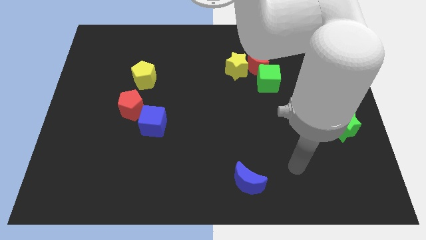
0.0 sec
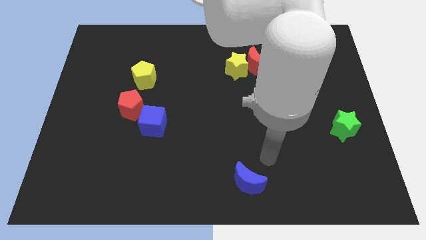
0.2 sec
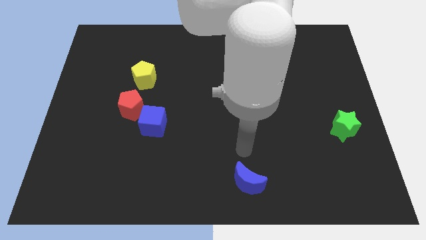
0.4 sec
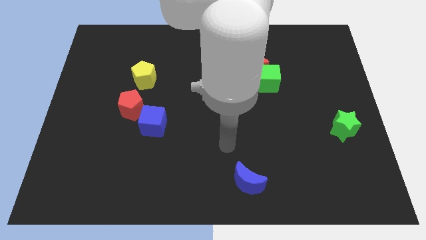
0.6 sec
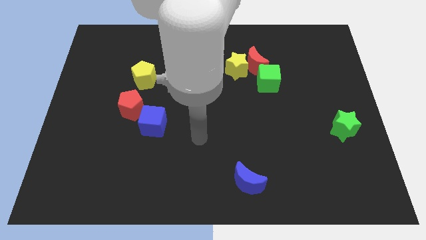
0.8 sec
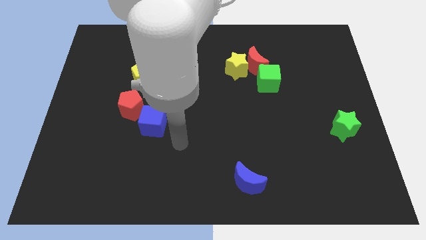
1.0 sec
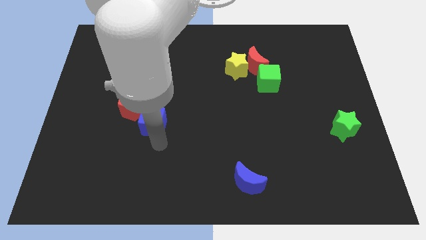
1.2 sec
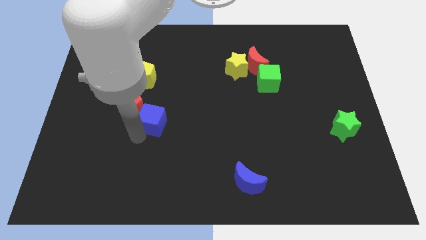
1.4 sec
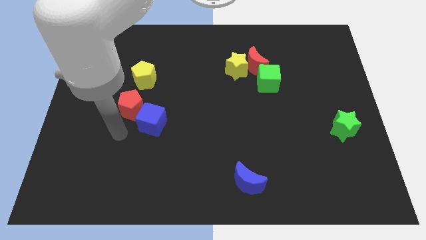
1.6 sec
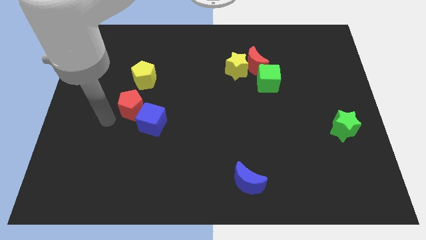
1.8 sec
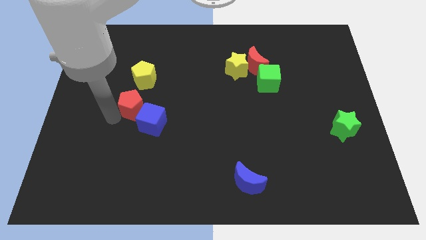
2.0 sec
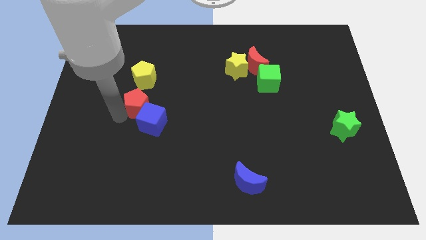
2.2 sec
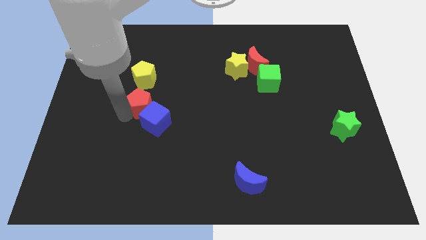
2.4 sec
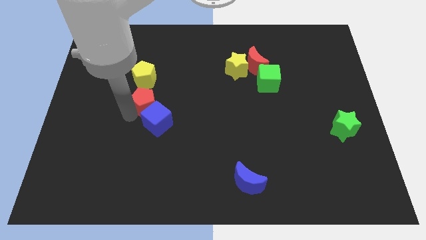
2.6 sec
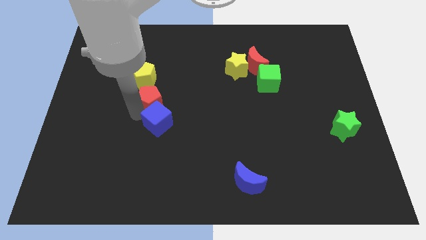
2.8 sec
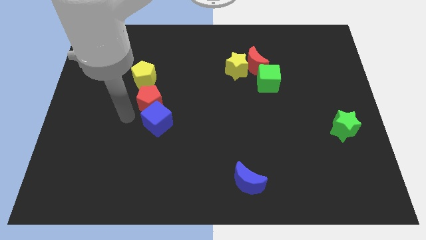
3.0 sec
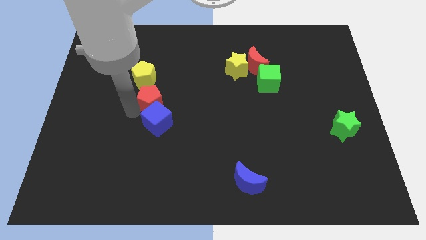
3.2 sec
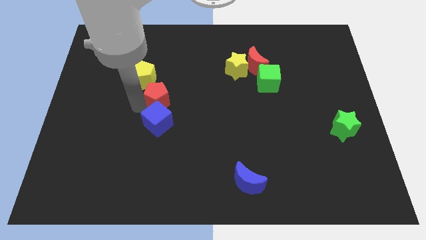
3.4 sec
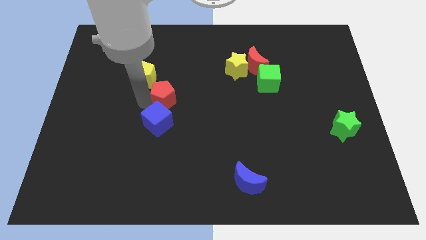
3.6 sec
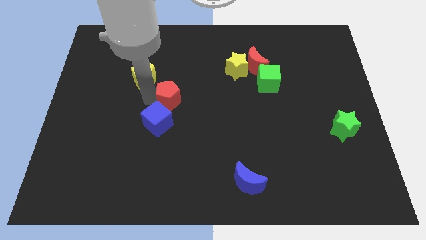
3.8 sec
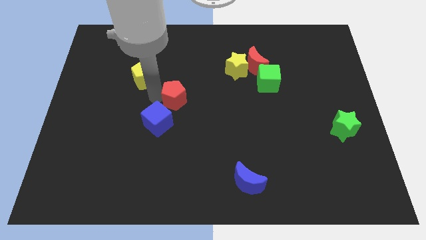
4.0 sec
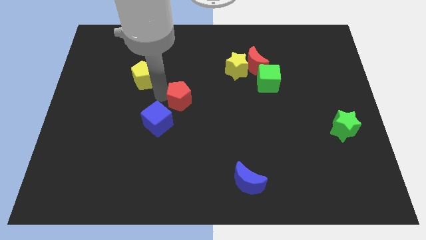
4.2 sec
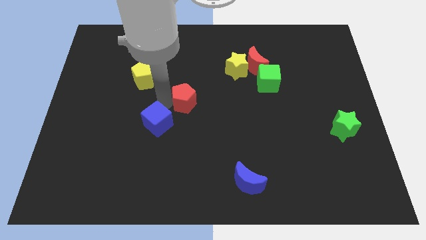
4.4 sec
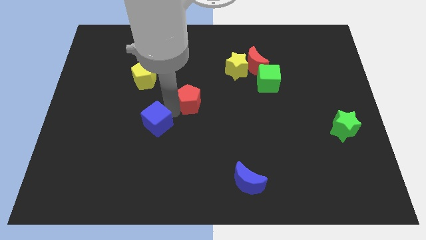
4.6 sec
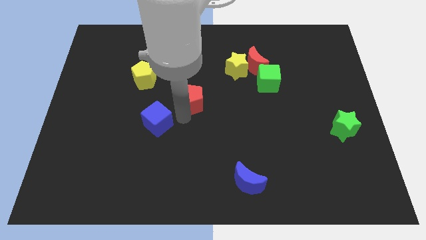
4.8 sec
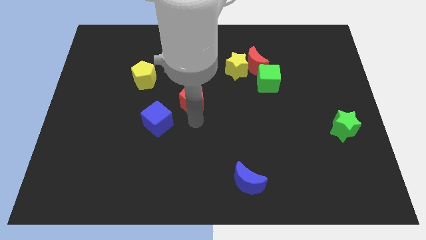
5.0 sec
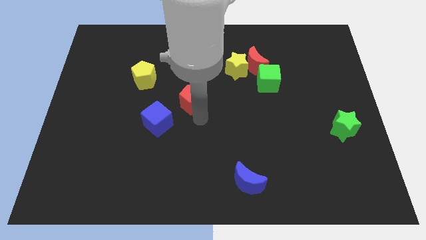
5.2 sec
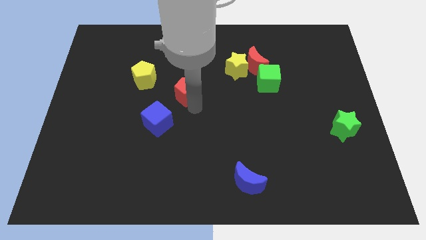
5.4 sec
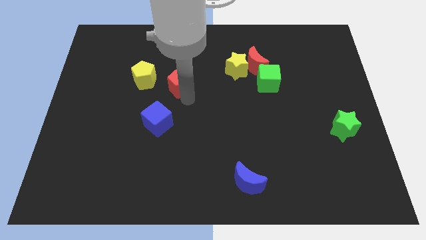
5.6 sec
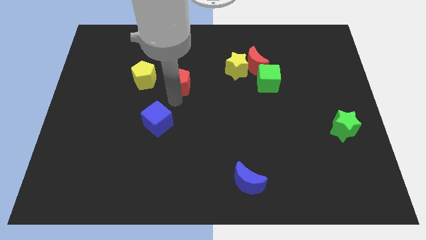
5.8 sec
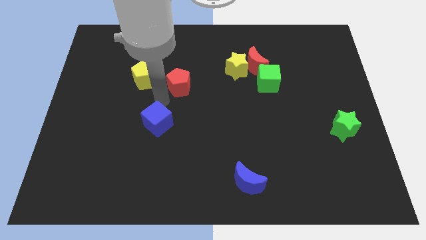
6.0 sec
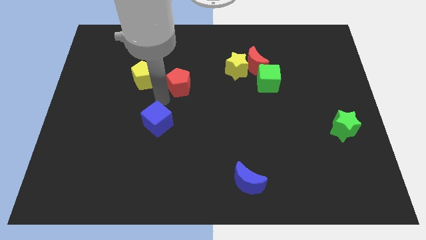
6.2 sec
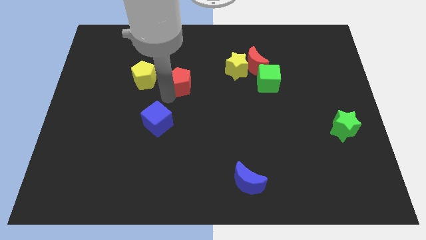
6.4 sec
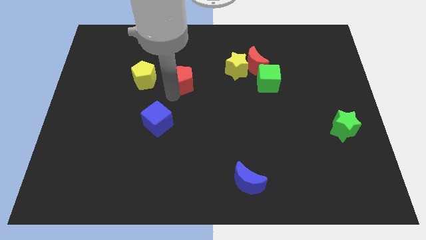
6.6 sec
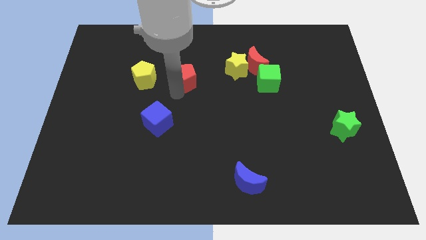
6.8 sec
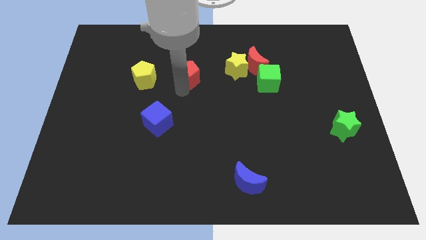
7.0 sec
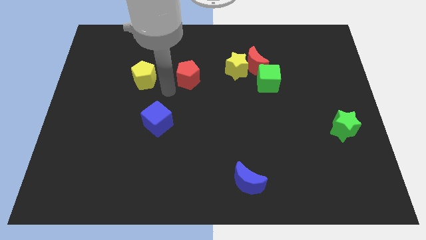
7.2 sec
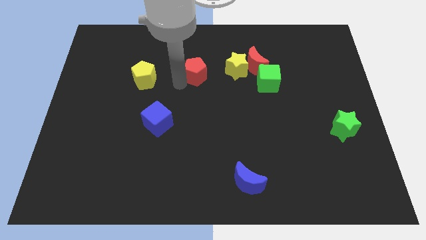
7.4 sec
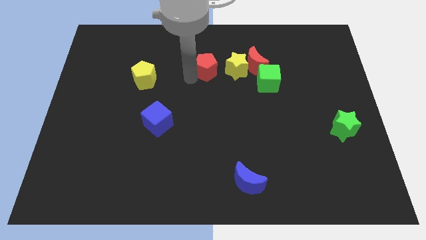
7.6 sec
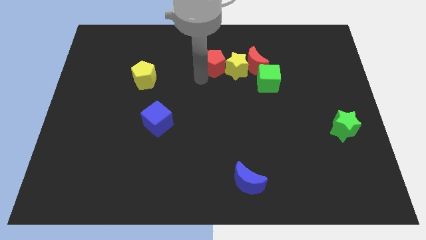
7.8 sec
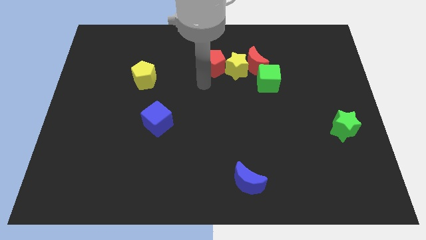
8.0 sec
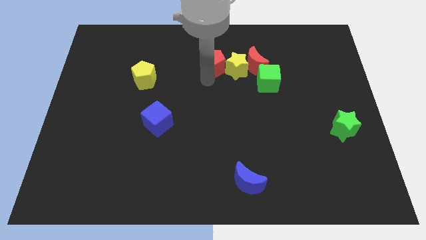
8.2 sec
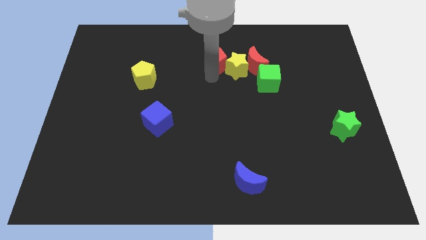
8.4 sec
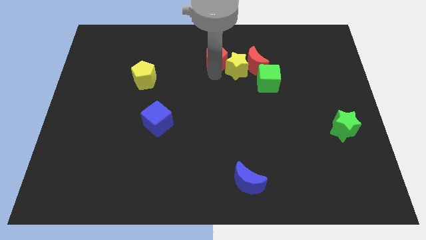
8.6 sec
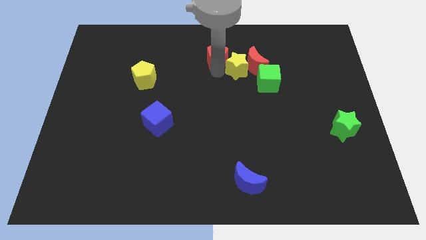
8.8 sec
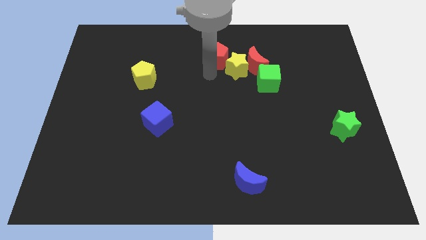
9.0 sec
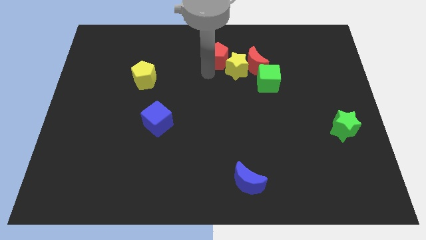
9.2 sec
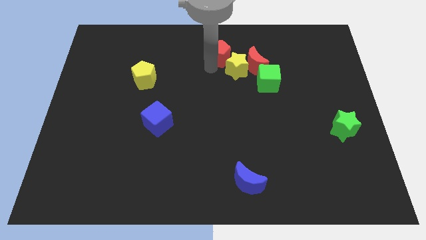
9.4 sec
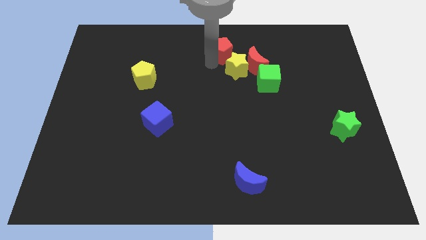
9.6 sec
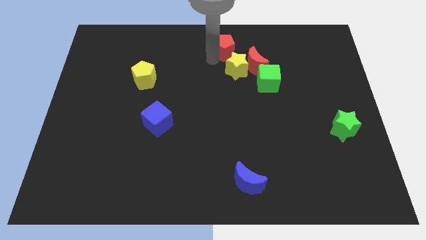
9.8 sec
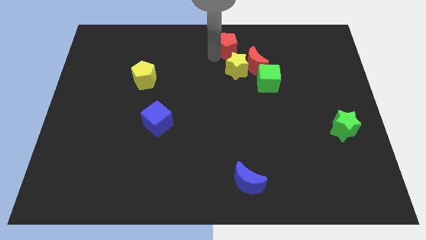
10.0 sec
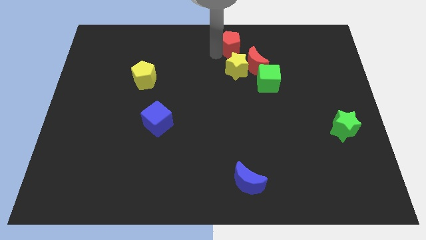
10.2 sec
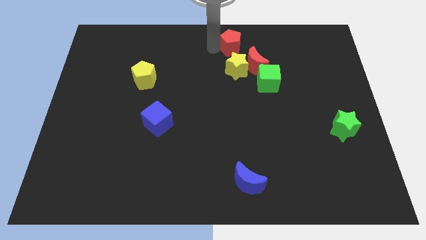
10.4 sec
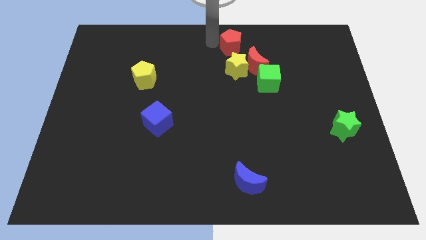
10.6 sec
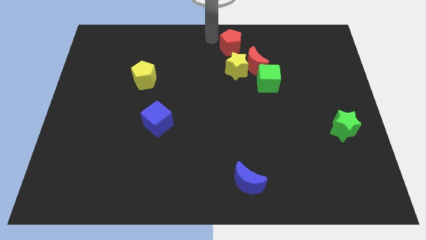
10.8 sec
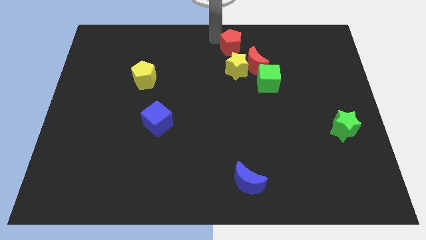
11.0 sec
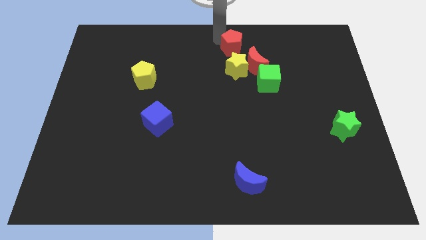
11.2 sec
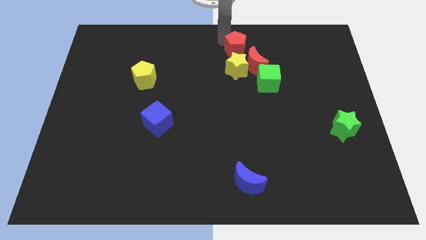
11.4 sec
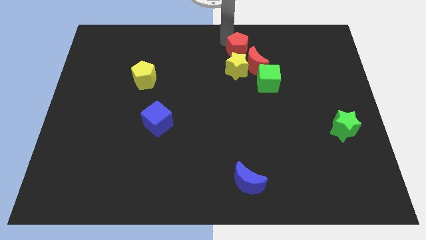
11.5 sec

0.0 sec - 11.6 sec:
move the red pentagon to the top right side of the yellow star
